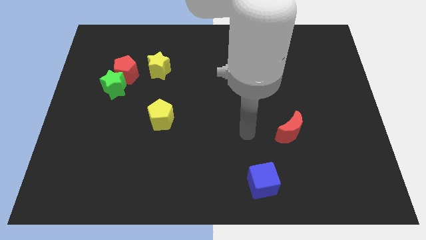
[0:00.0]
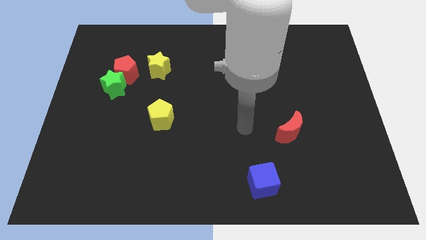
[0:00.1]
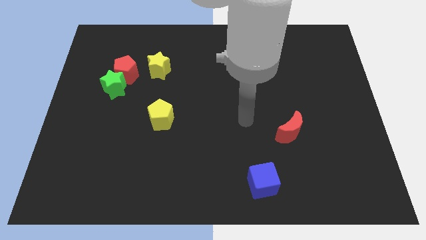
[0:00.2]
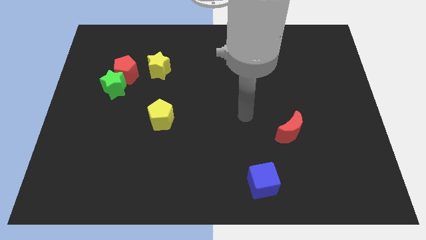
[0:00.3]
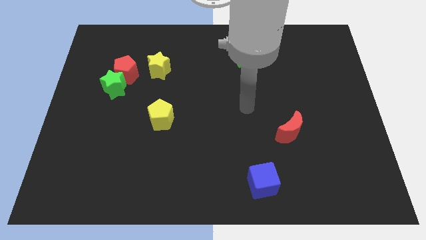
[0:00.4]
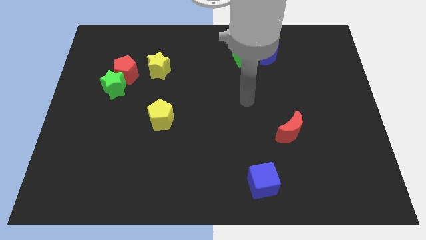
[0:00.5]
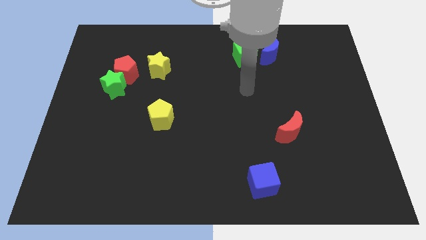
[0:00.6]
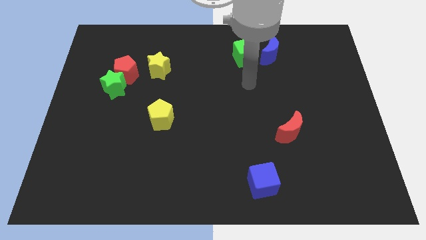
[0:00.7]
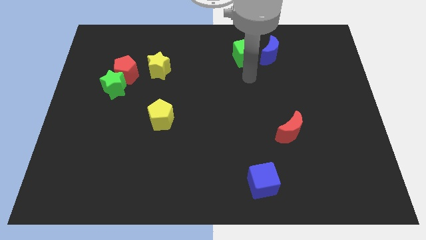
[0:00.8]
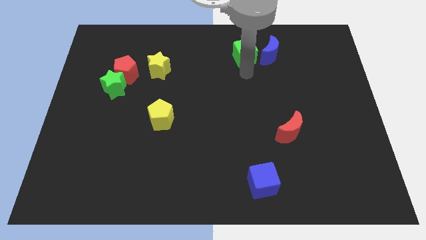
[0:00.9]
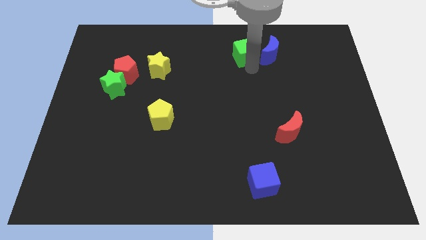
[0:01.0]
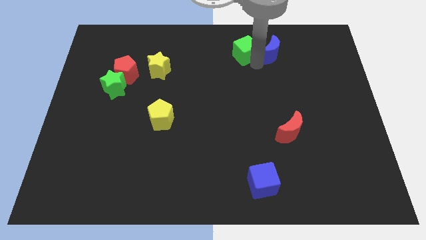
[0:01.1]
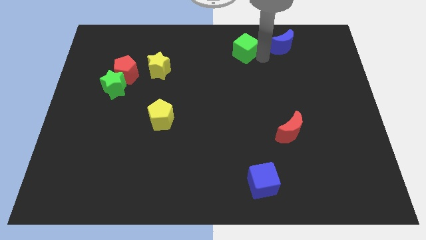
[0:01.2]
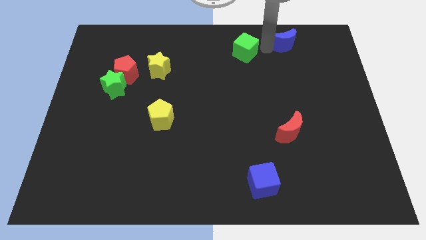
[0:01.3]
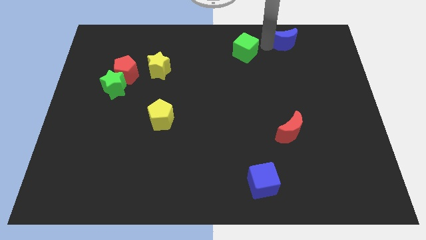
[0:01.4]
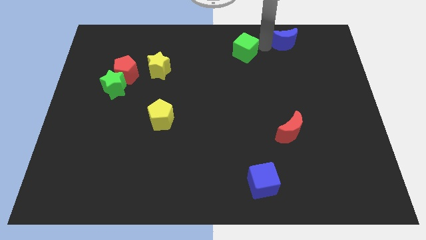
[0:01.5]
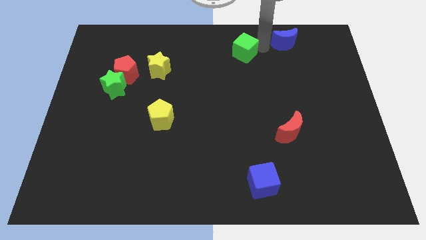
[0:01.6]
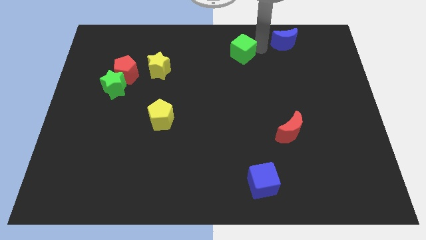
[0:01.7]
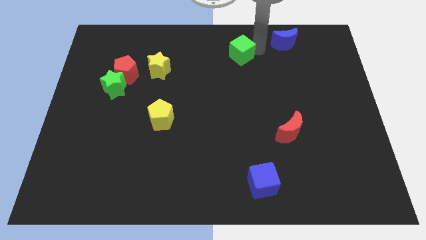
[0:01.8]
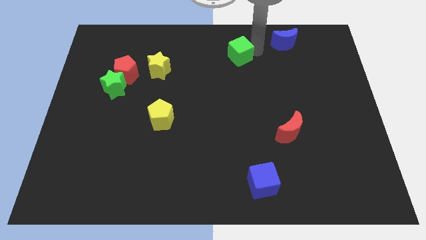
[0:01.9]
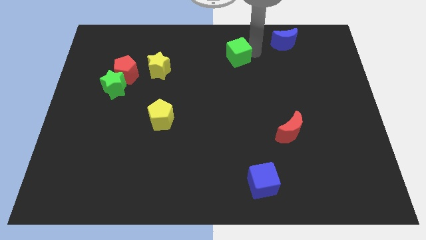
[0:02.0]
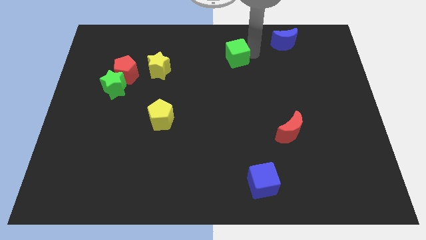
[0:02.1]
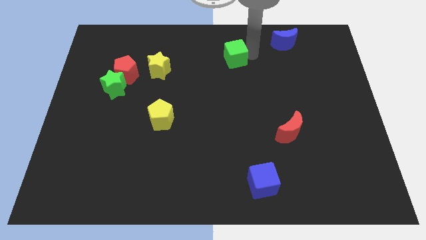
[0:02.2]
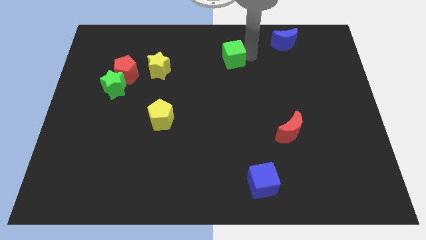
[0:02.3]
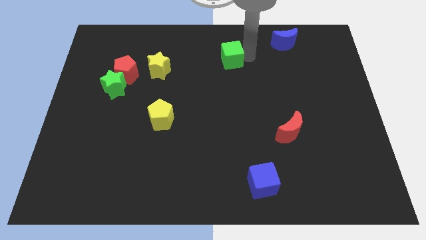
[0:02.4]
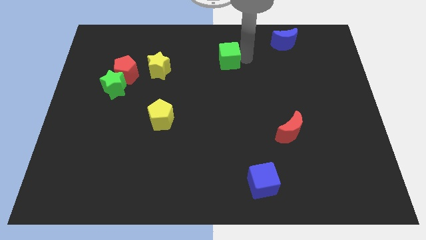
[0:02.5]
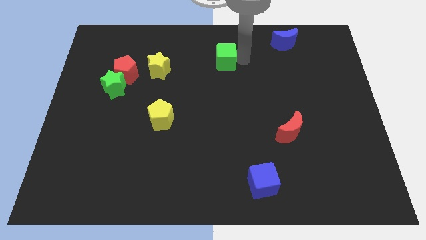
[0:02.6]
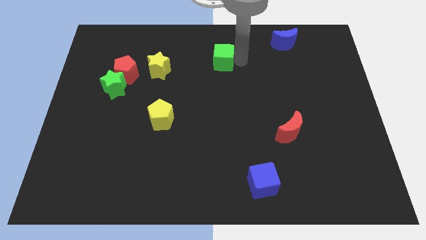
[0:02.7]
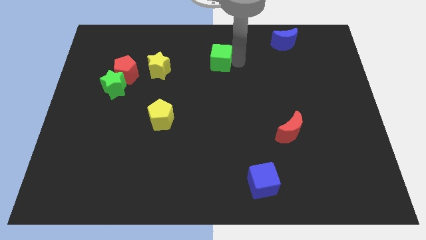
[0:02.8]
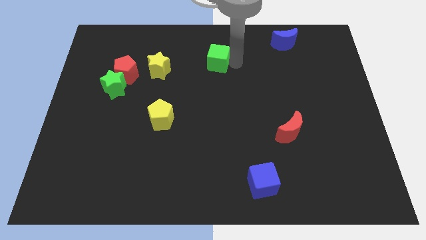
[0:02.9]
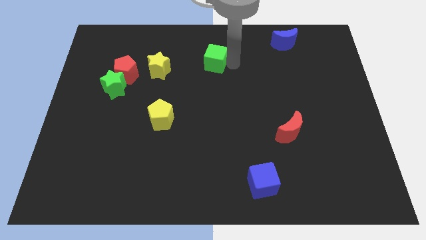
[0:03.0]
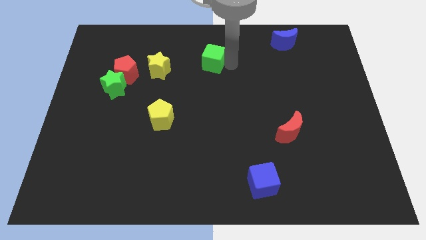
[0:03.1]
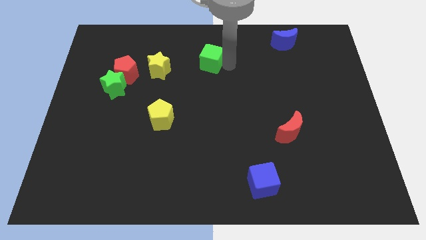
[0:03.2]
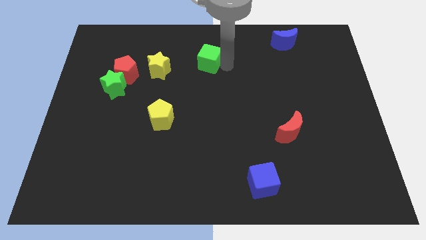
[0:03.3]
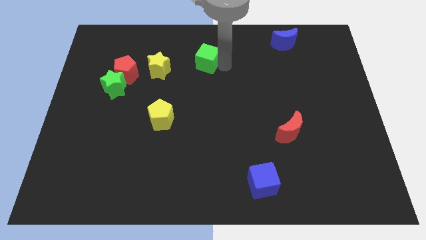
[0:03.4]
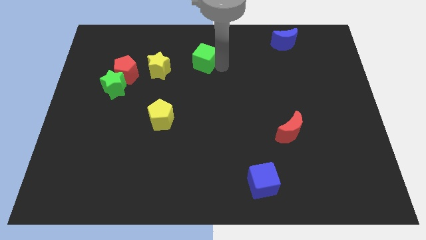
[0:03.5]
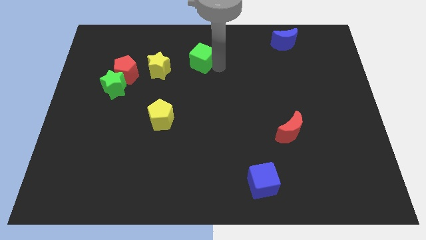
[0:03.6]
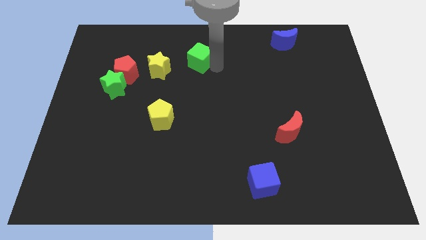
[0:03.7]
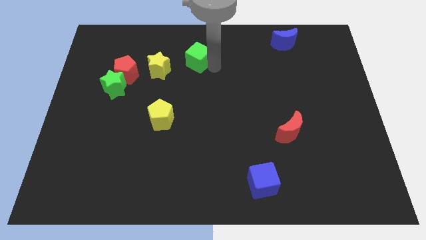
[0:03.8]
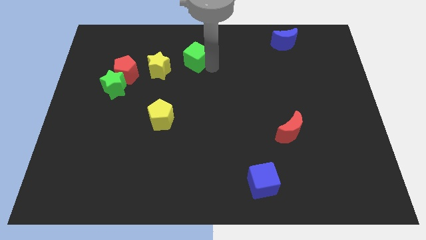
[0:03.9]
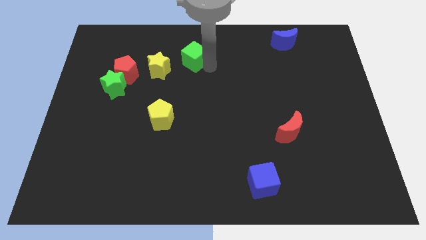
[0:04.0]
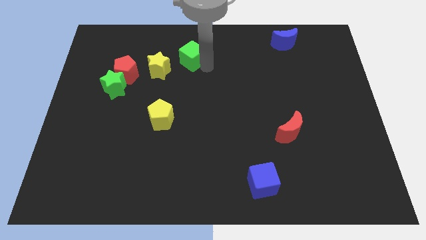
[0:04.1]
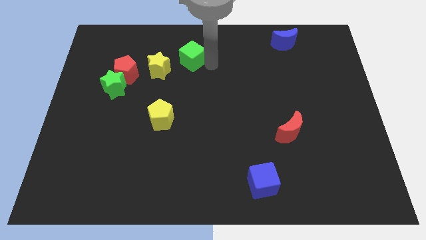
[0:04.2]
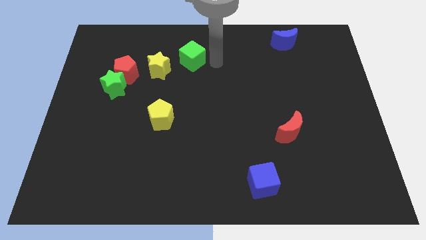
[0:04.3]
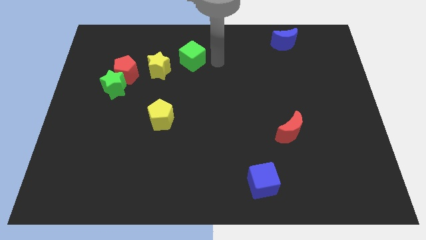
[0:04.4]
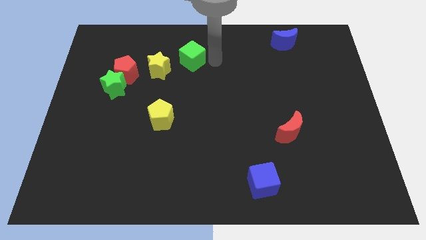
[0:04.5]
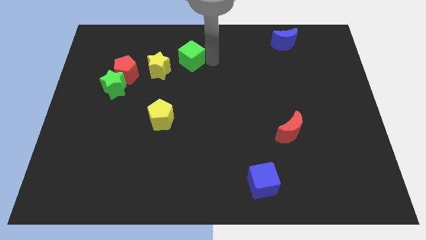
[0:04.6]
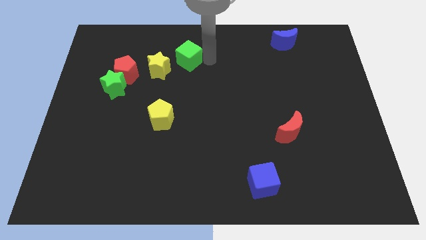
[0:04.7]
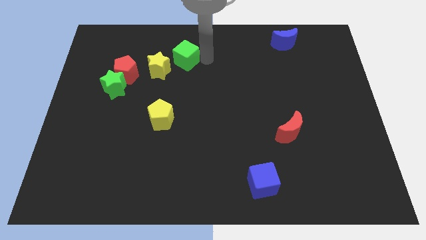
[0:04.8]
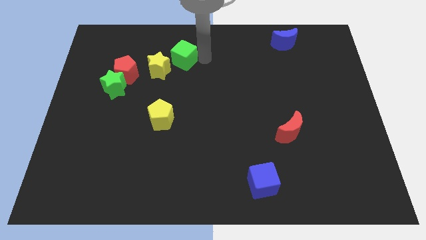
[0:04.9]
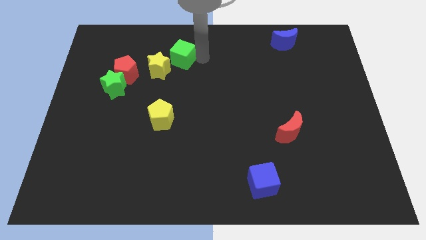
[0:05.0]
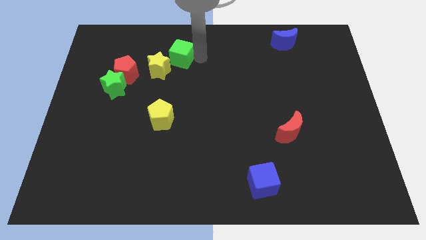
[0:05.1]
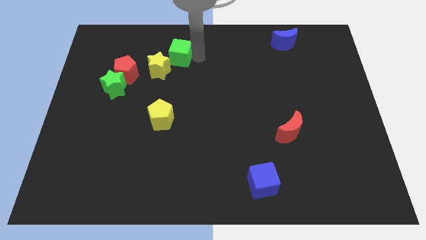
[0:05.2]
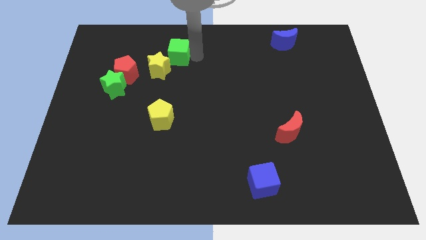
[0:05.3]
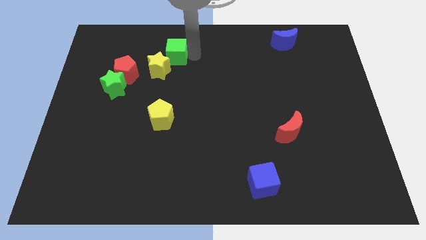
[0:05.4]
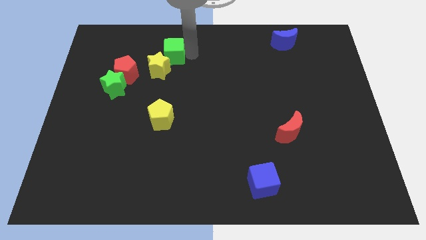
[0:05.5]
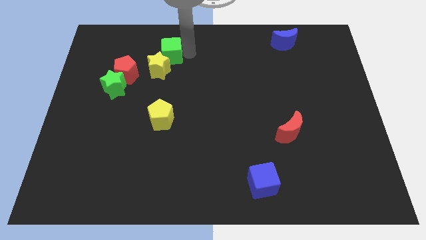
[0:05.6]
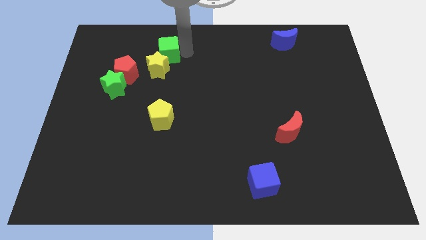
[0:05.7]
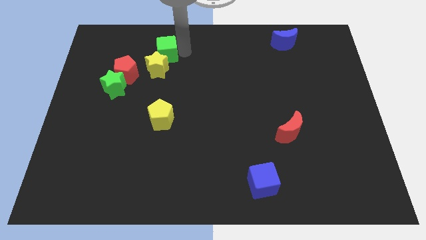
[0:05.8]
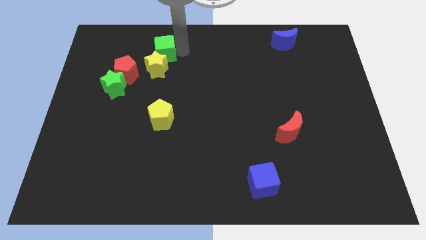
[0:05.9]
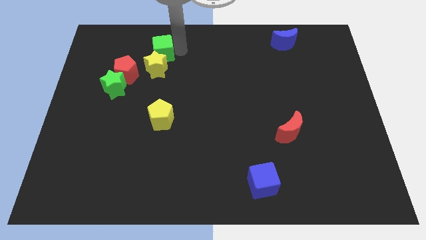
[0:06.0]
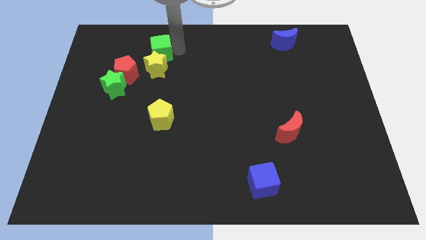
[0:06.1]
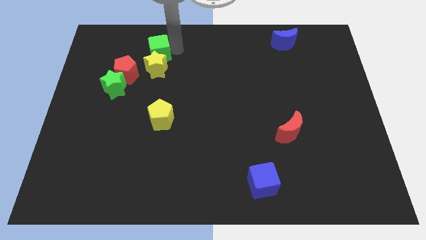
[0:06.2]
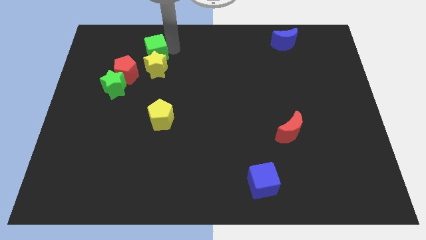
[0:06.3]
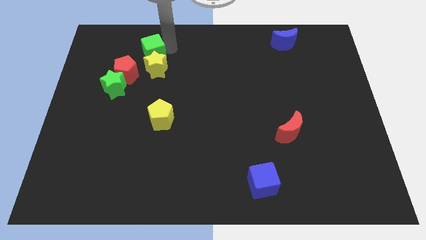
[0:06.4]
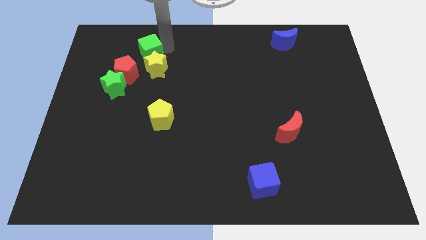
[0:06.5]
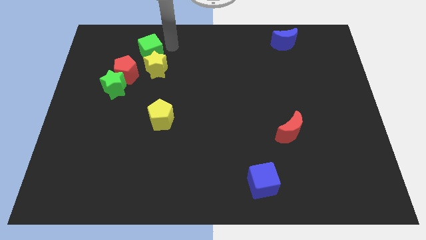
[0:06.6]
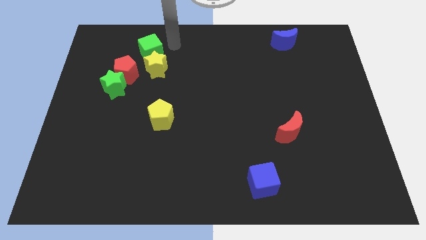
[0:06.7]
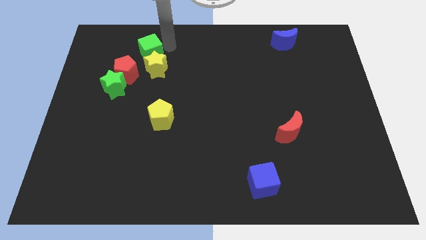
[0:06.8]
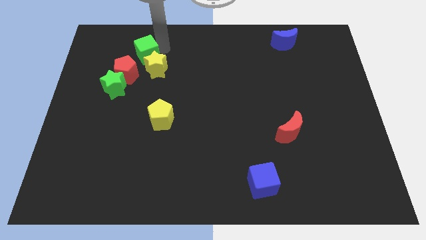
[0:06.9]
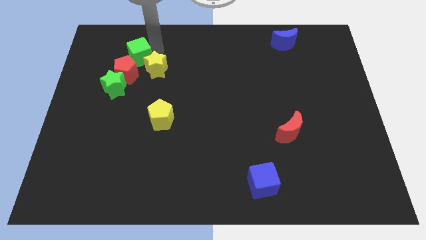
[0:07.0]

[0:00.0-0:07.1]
slide the green cube left of the yellow star
